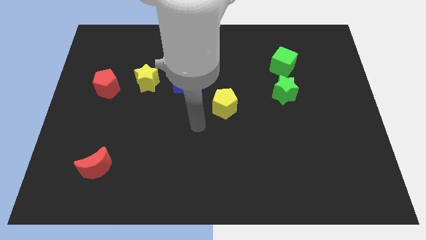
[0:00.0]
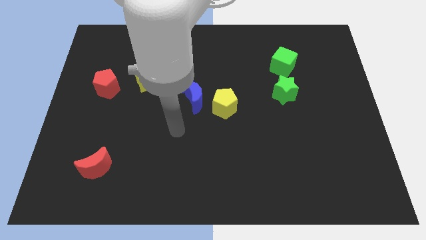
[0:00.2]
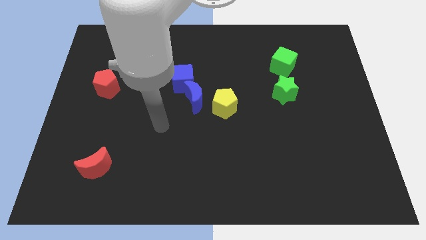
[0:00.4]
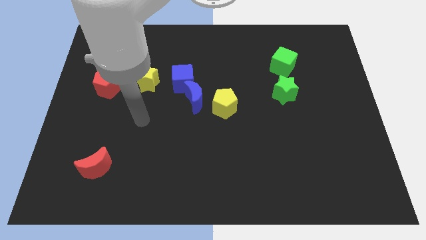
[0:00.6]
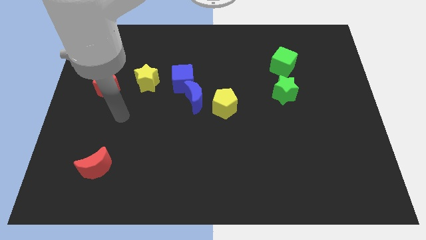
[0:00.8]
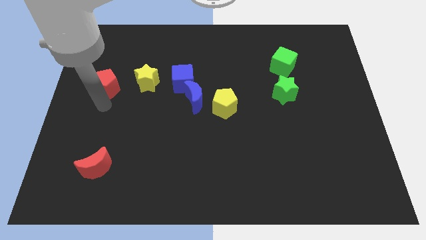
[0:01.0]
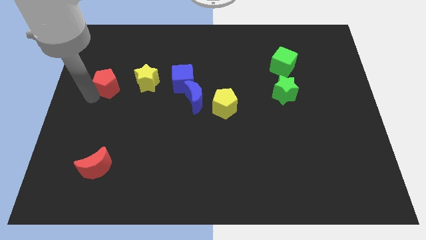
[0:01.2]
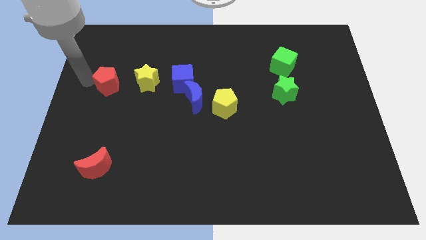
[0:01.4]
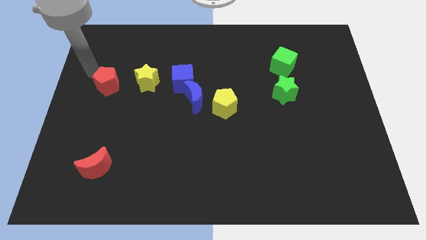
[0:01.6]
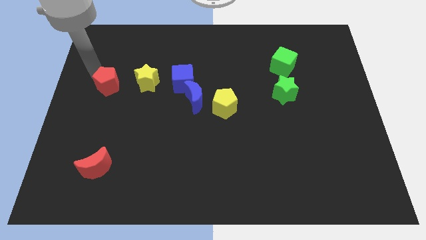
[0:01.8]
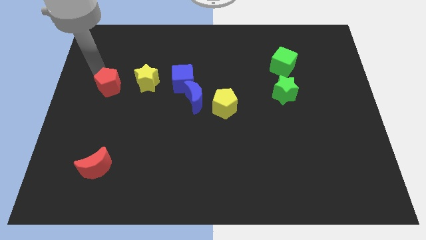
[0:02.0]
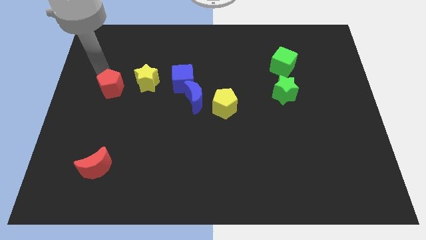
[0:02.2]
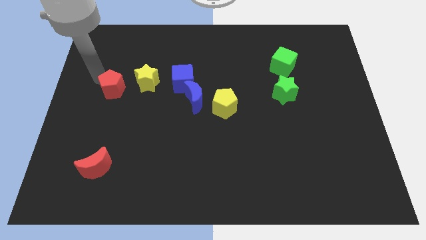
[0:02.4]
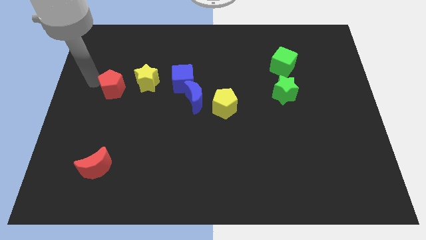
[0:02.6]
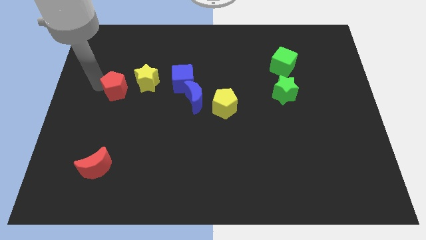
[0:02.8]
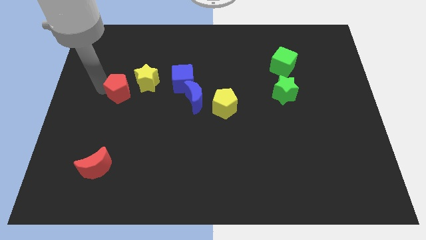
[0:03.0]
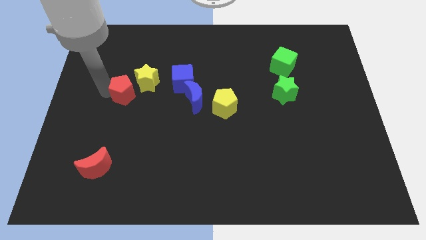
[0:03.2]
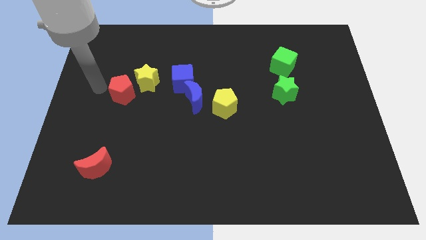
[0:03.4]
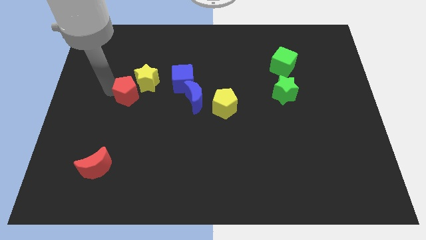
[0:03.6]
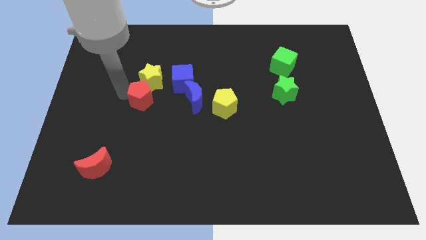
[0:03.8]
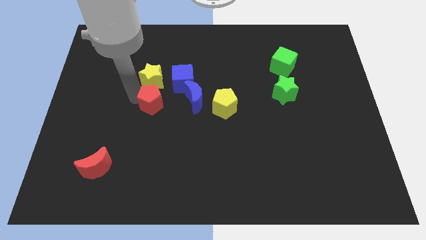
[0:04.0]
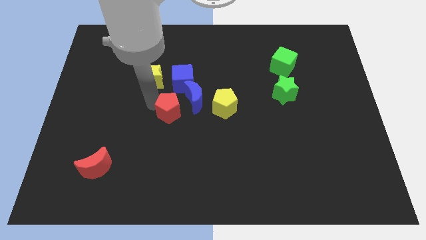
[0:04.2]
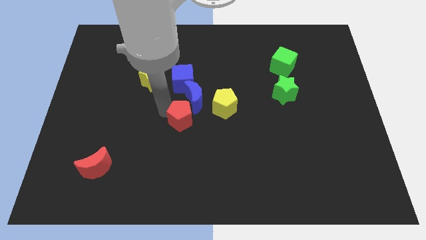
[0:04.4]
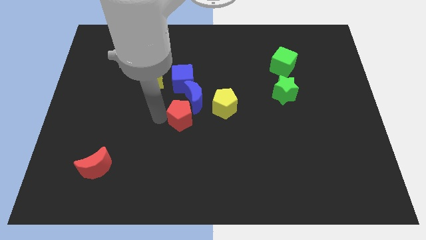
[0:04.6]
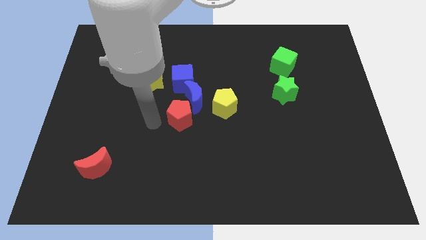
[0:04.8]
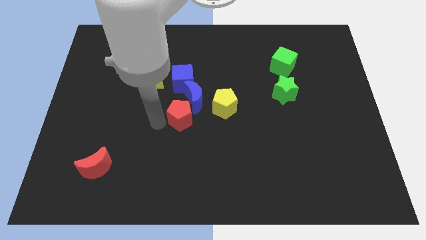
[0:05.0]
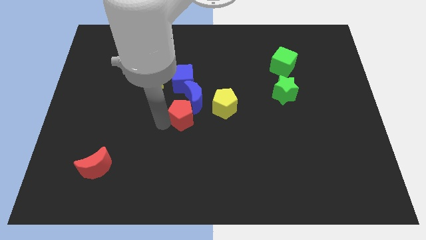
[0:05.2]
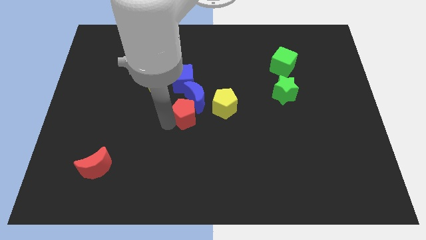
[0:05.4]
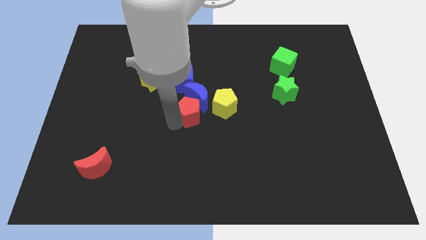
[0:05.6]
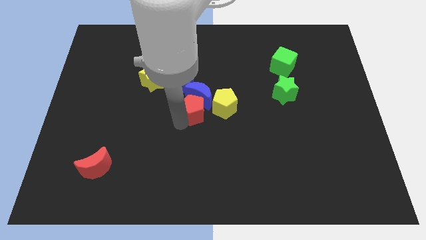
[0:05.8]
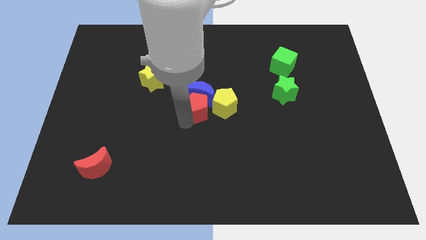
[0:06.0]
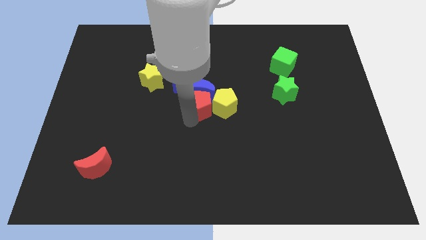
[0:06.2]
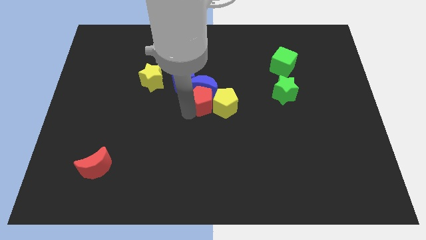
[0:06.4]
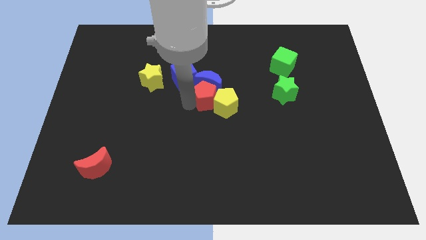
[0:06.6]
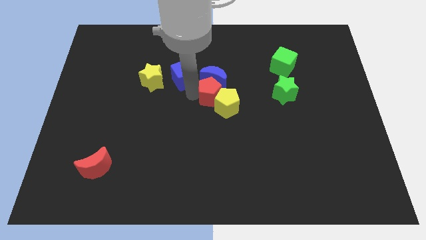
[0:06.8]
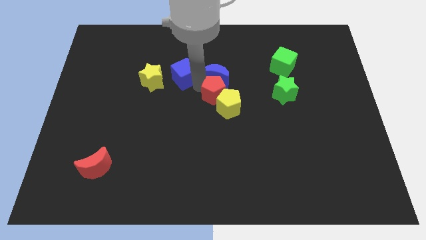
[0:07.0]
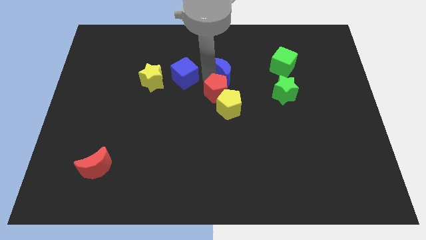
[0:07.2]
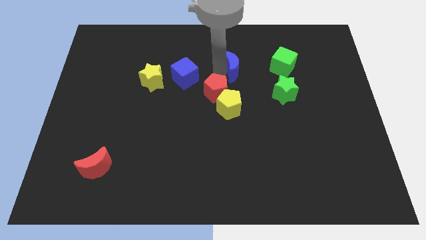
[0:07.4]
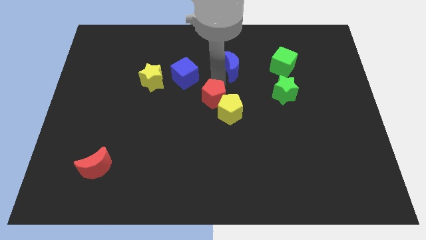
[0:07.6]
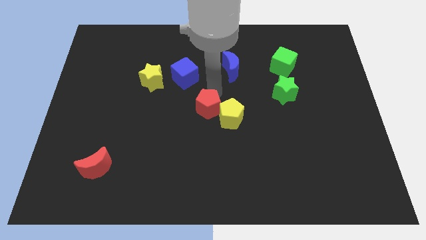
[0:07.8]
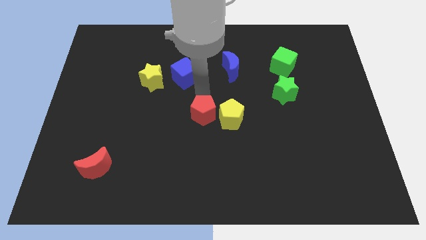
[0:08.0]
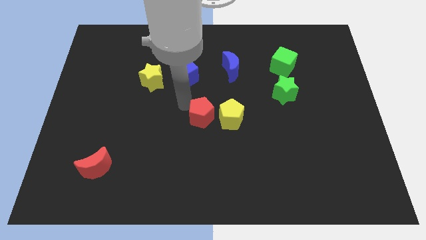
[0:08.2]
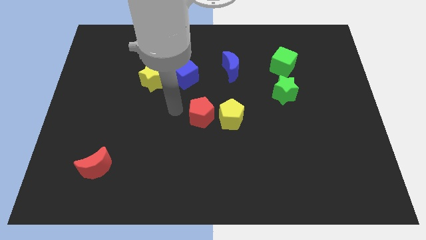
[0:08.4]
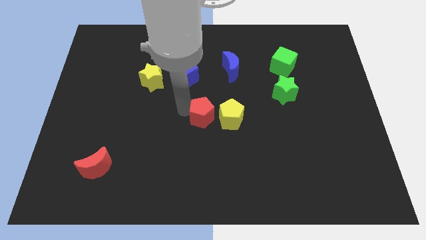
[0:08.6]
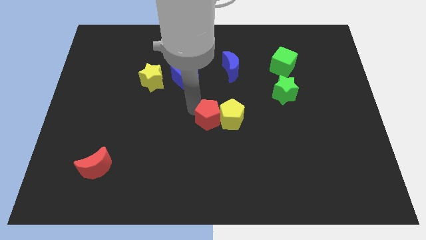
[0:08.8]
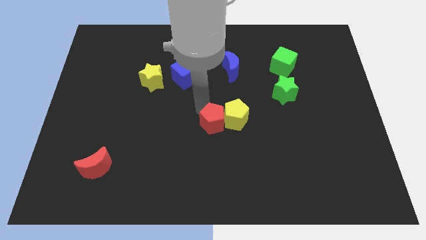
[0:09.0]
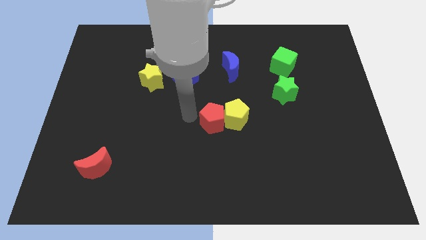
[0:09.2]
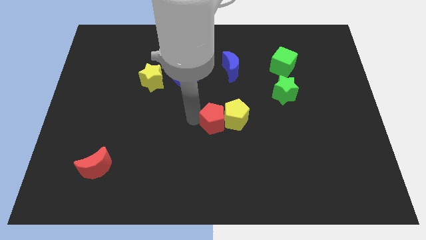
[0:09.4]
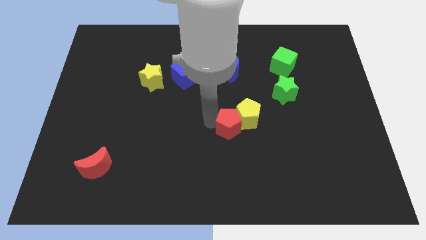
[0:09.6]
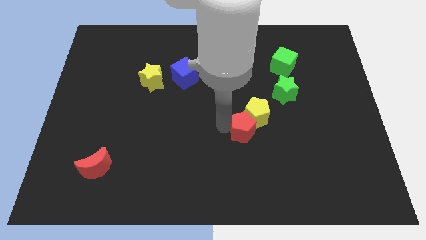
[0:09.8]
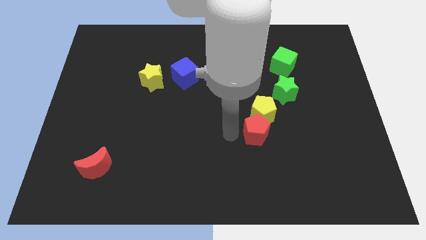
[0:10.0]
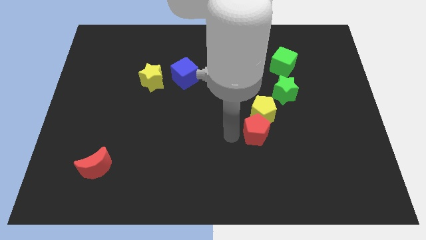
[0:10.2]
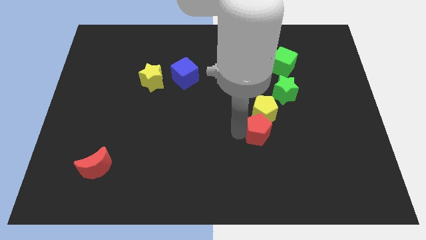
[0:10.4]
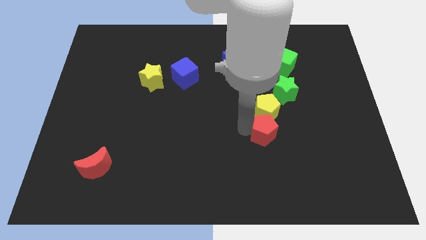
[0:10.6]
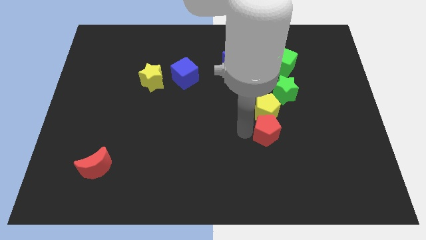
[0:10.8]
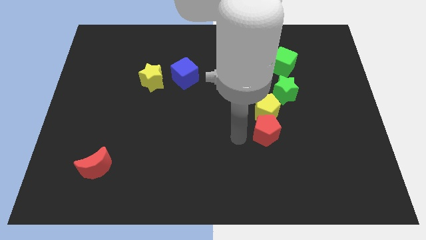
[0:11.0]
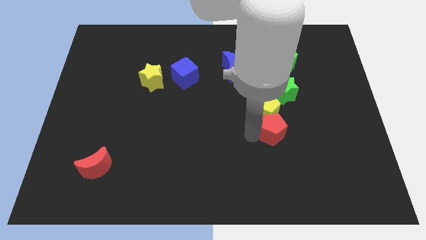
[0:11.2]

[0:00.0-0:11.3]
push the red pentagon to the bottom side of the green star

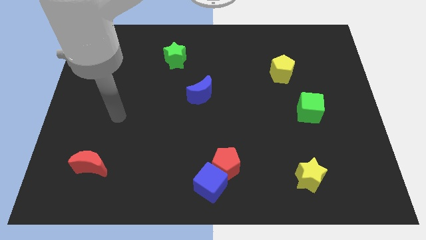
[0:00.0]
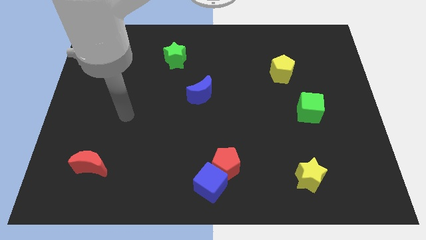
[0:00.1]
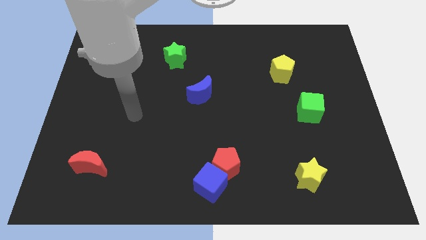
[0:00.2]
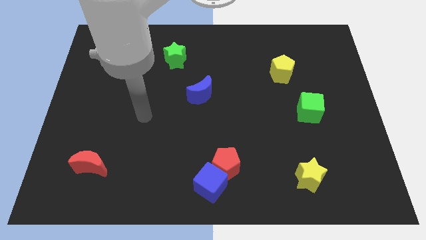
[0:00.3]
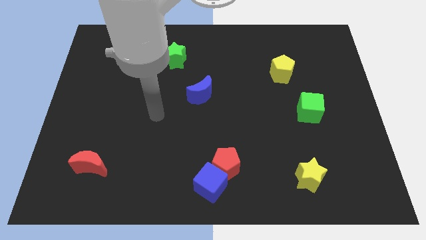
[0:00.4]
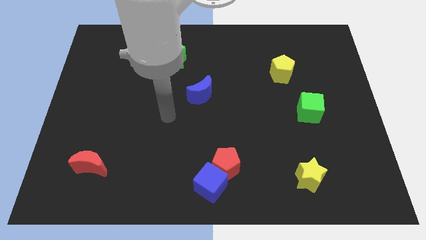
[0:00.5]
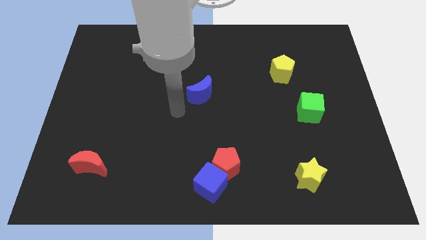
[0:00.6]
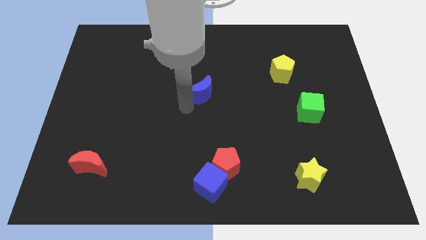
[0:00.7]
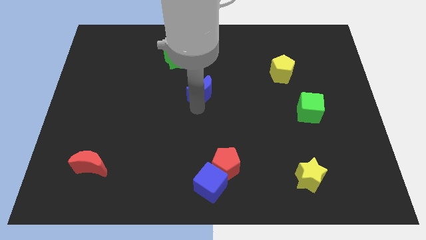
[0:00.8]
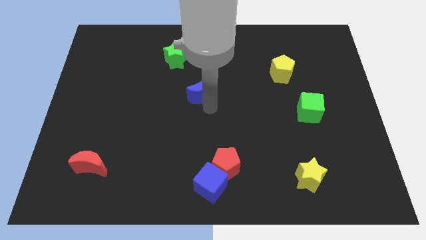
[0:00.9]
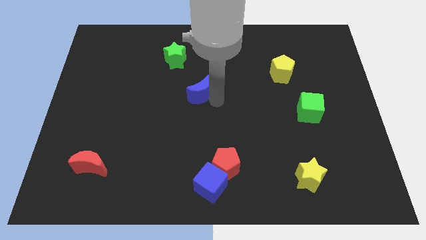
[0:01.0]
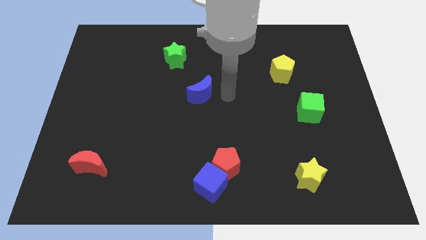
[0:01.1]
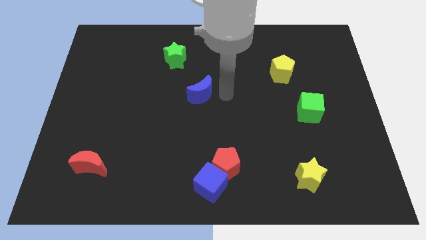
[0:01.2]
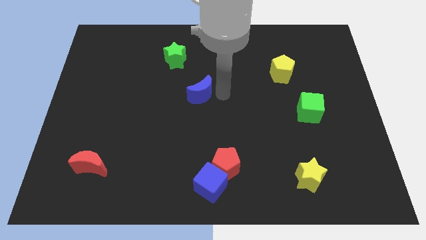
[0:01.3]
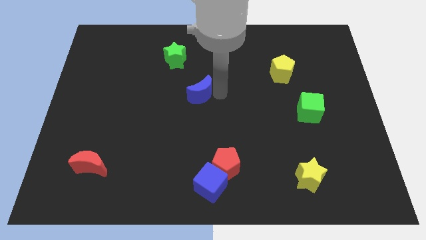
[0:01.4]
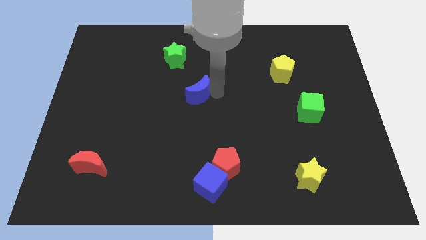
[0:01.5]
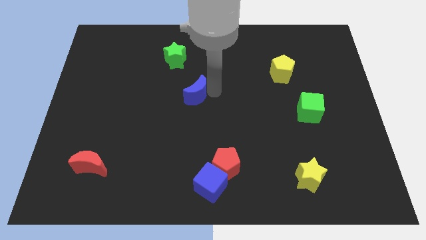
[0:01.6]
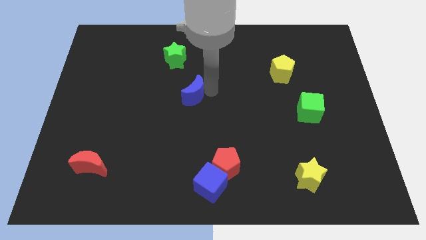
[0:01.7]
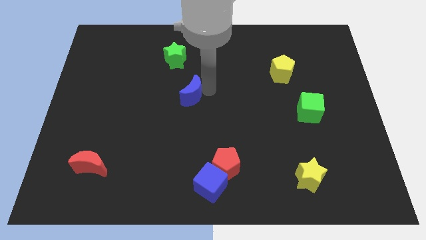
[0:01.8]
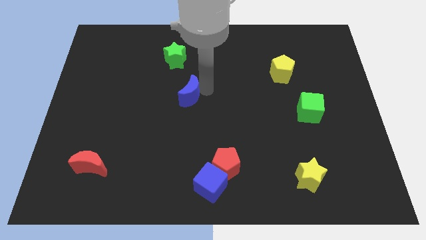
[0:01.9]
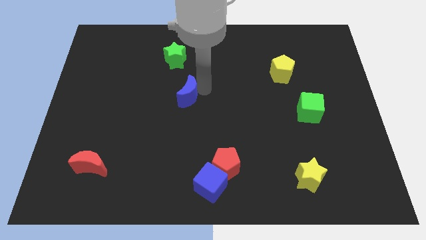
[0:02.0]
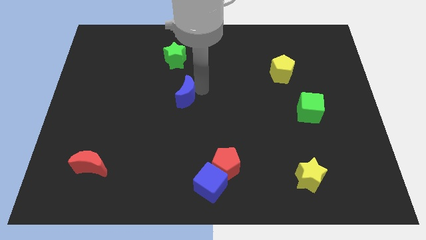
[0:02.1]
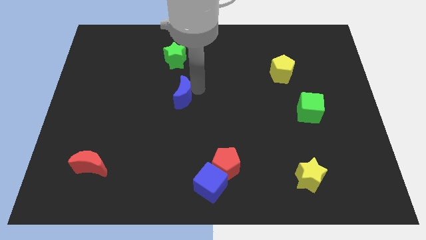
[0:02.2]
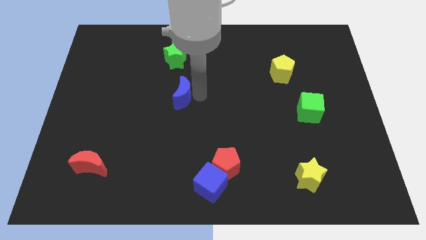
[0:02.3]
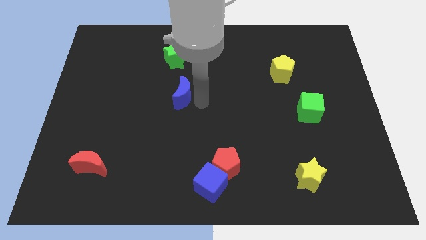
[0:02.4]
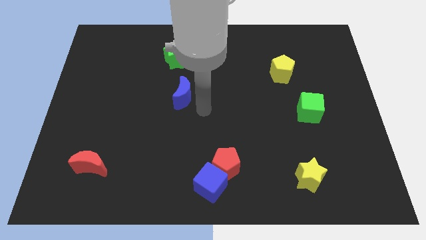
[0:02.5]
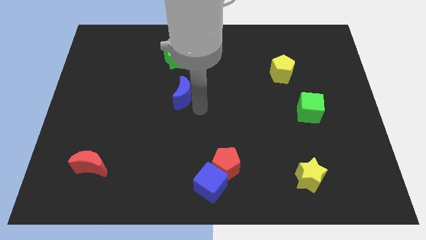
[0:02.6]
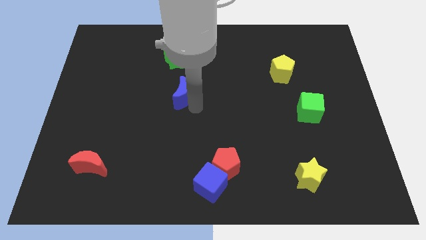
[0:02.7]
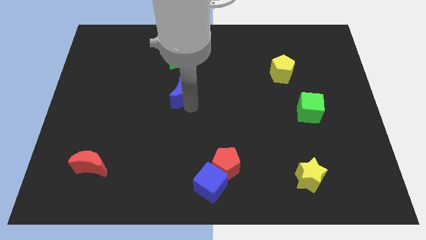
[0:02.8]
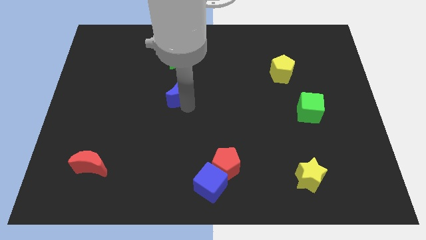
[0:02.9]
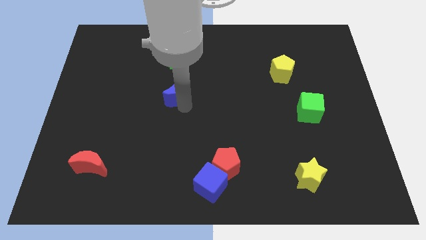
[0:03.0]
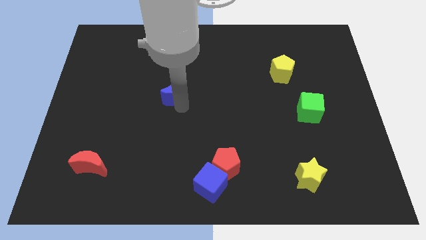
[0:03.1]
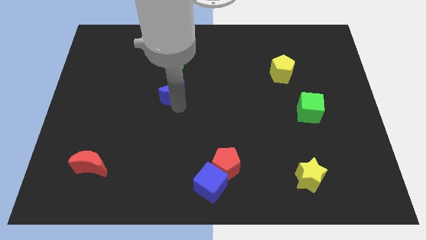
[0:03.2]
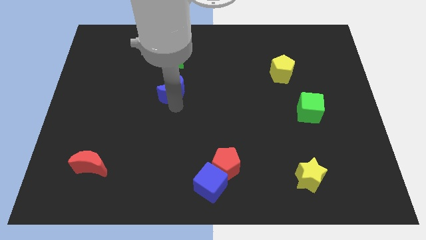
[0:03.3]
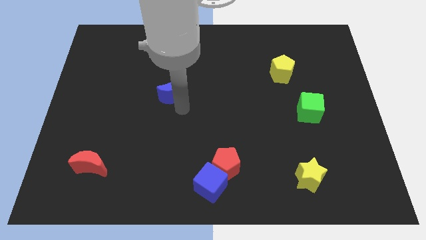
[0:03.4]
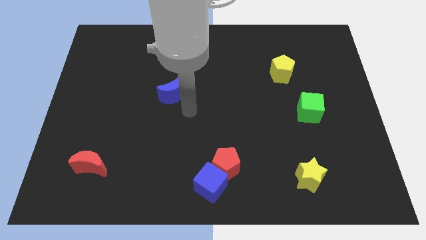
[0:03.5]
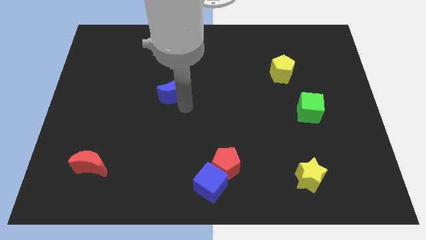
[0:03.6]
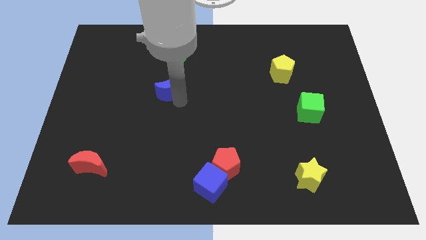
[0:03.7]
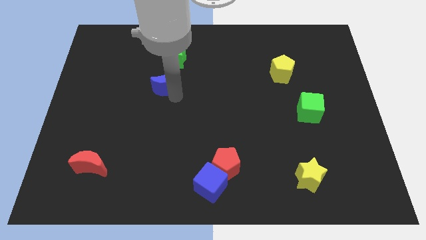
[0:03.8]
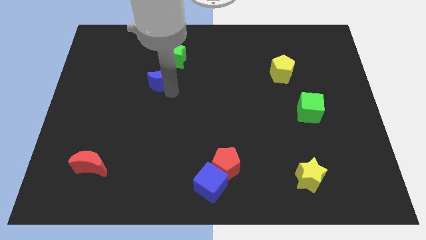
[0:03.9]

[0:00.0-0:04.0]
slide the blue moon to the bottom left side of the green star
